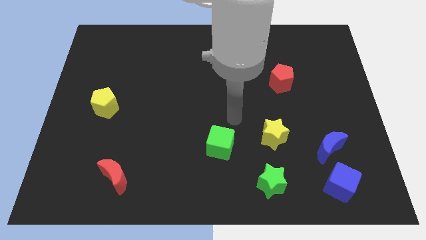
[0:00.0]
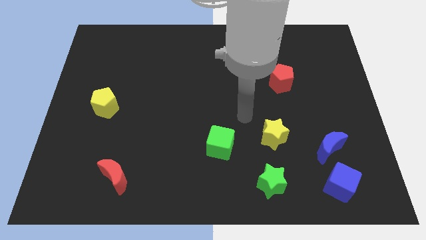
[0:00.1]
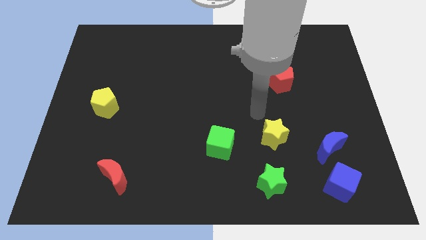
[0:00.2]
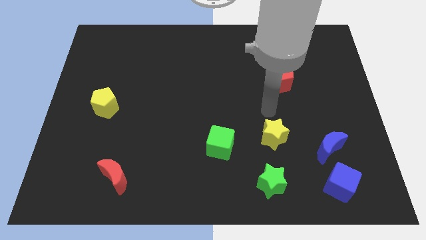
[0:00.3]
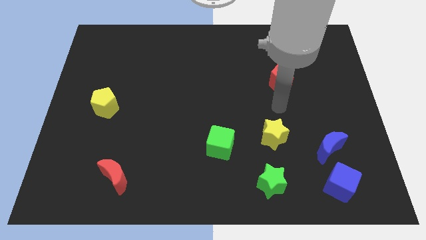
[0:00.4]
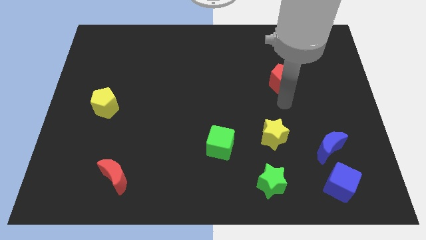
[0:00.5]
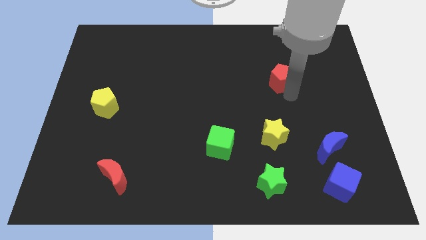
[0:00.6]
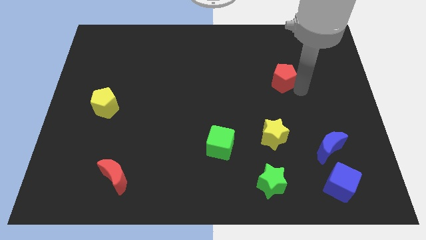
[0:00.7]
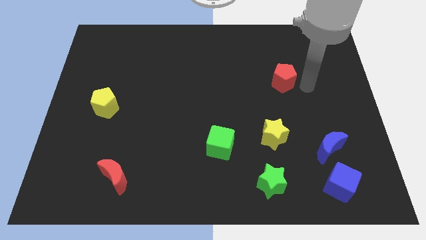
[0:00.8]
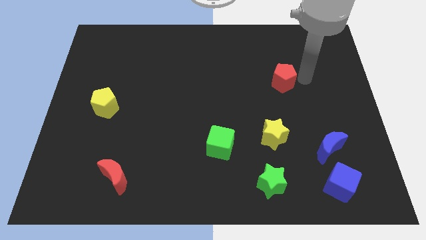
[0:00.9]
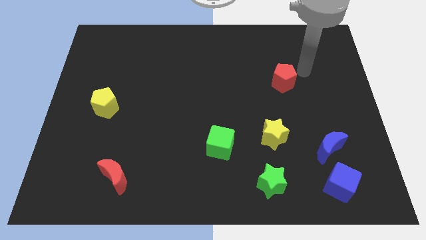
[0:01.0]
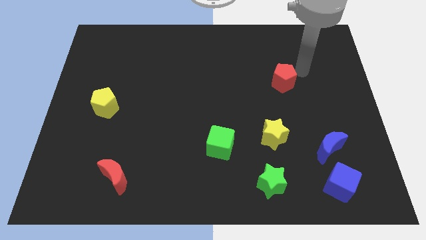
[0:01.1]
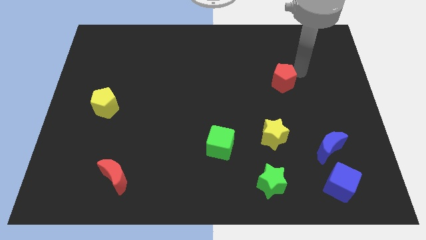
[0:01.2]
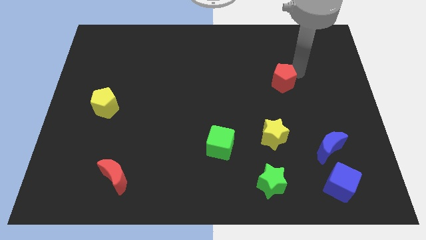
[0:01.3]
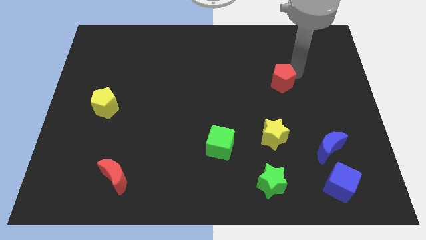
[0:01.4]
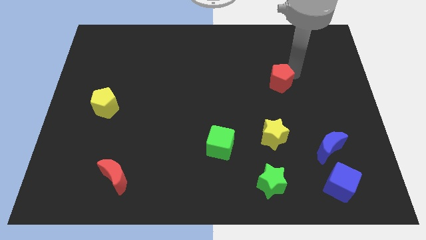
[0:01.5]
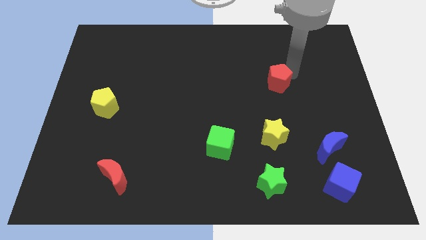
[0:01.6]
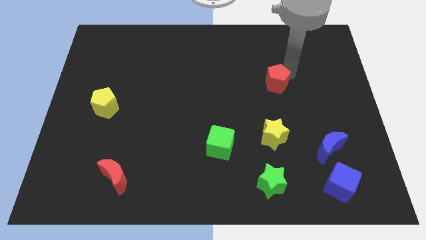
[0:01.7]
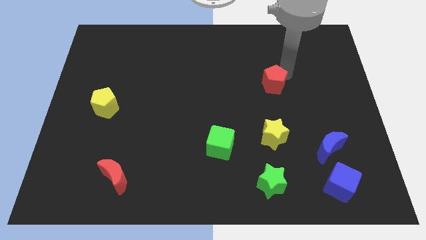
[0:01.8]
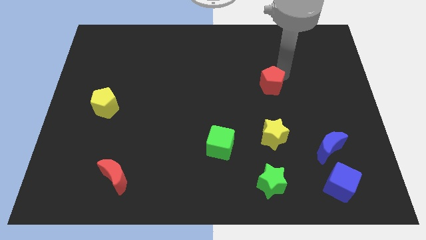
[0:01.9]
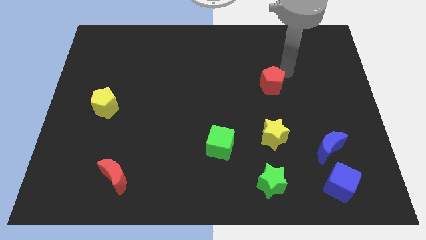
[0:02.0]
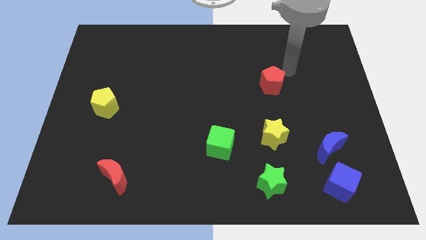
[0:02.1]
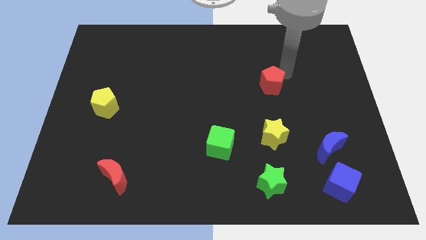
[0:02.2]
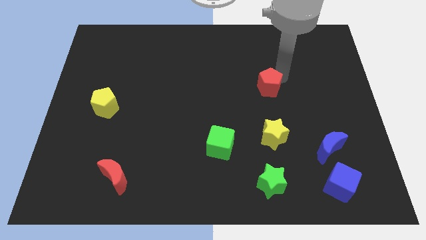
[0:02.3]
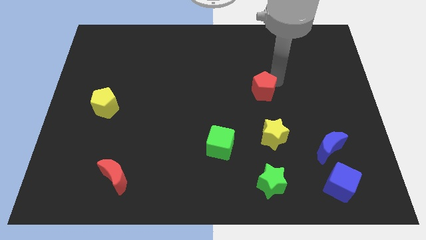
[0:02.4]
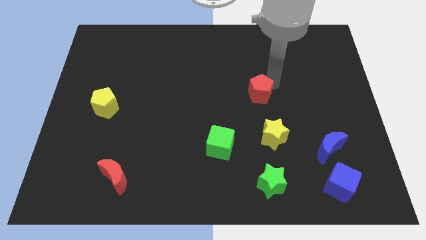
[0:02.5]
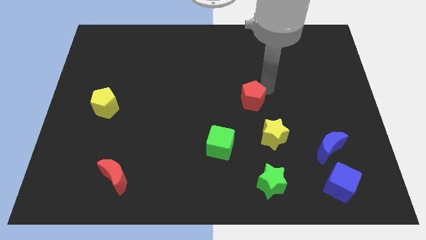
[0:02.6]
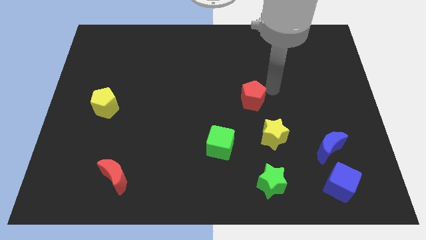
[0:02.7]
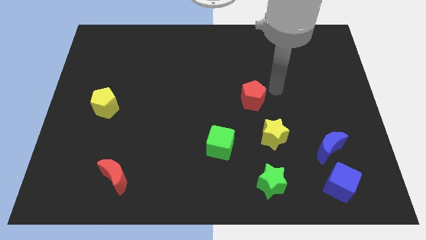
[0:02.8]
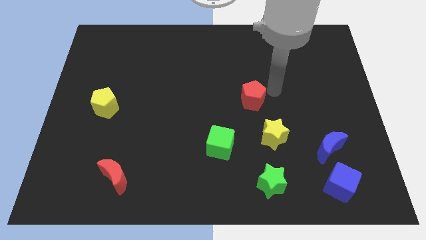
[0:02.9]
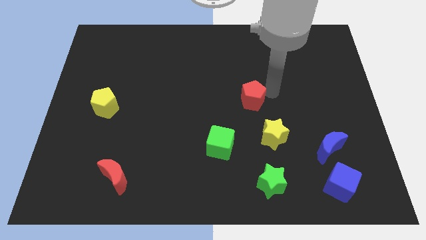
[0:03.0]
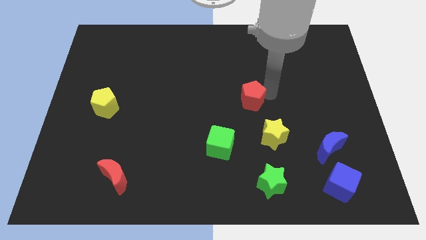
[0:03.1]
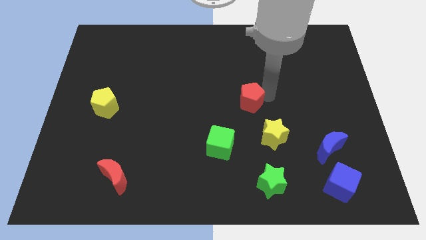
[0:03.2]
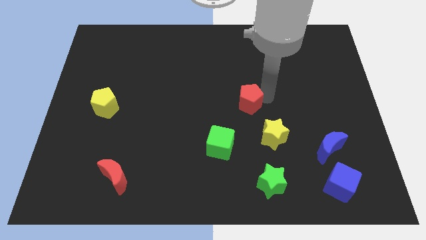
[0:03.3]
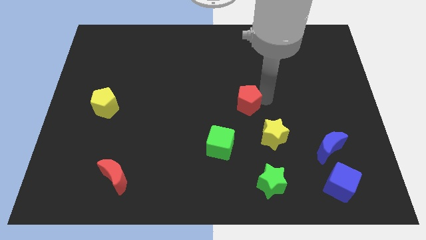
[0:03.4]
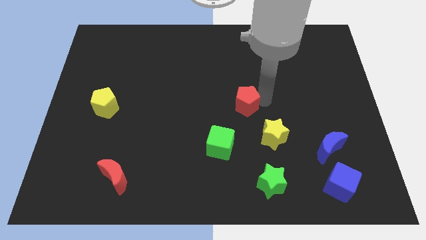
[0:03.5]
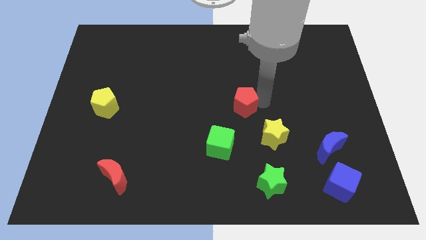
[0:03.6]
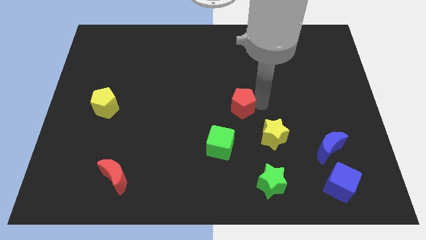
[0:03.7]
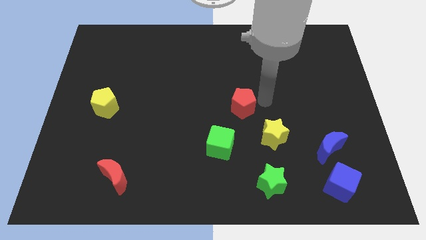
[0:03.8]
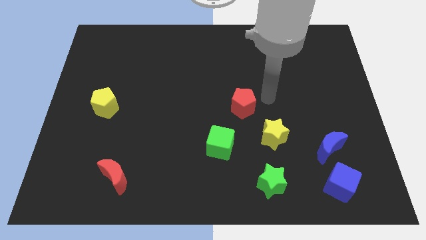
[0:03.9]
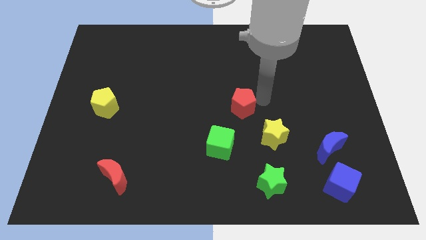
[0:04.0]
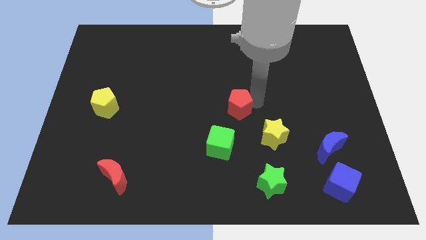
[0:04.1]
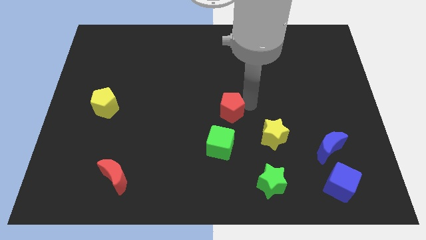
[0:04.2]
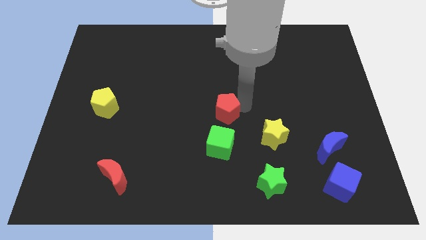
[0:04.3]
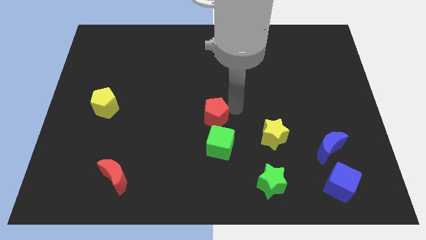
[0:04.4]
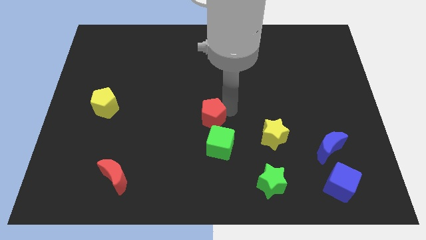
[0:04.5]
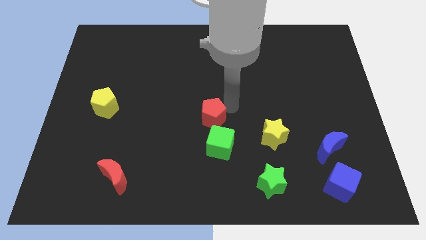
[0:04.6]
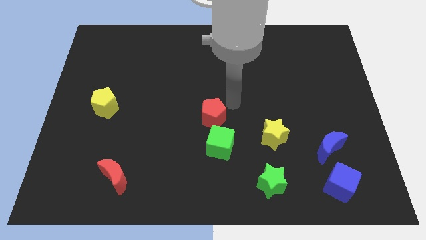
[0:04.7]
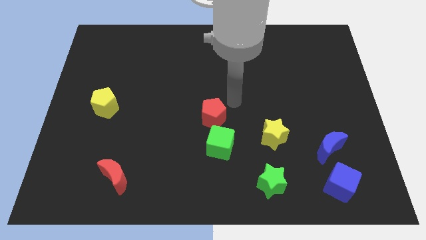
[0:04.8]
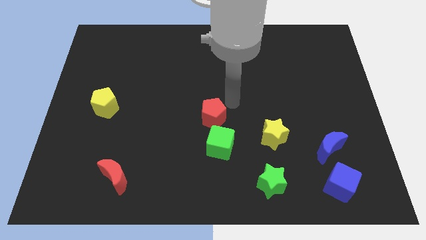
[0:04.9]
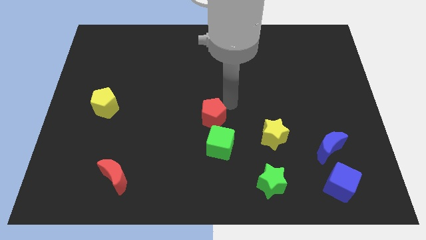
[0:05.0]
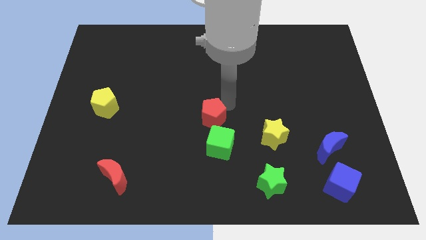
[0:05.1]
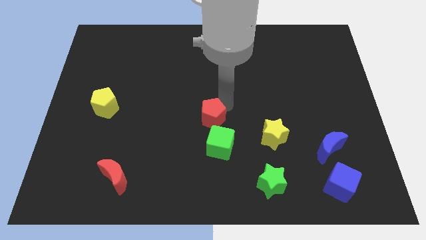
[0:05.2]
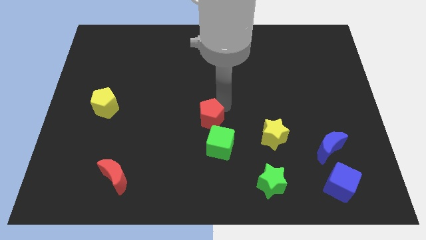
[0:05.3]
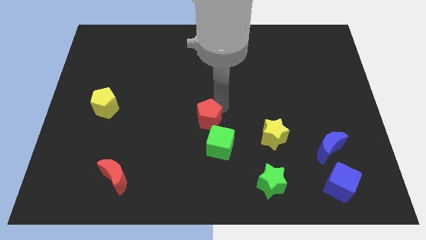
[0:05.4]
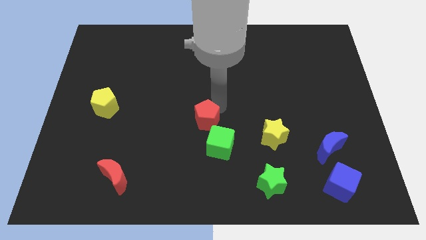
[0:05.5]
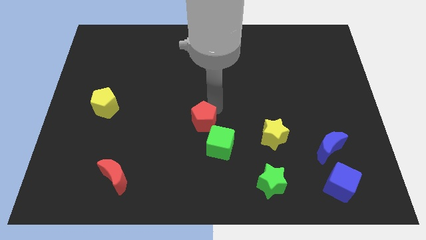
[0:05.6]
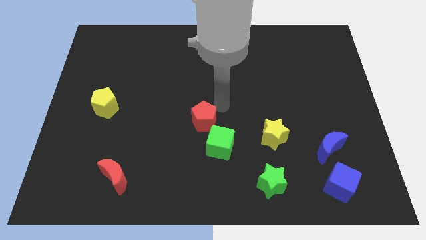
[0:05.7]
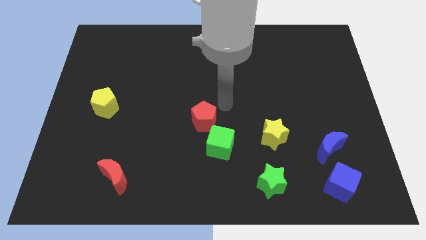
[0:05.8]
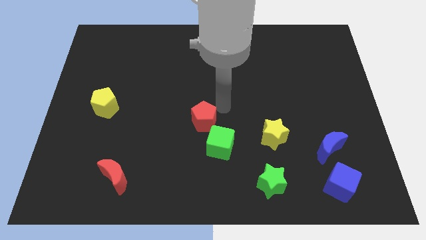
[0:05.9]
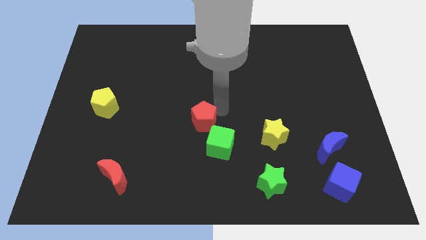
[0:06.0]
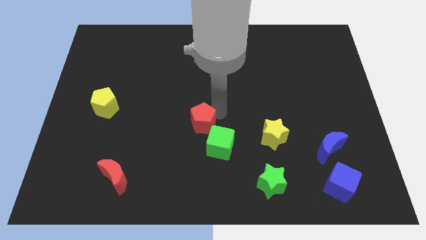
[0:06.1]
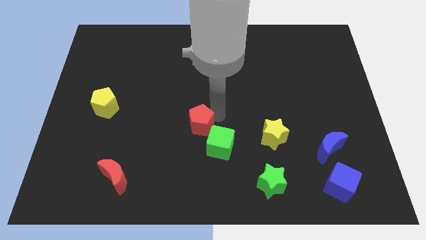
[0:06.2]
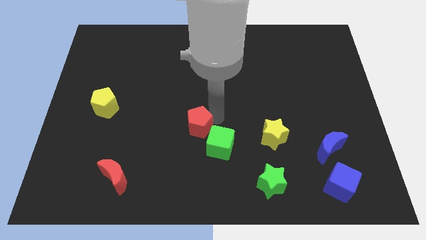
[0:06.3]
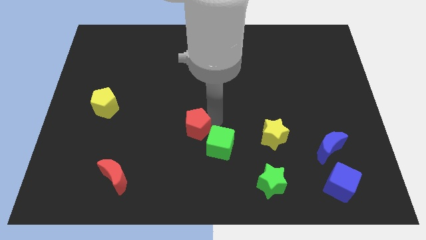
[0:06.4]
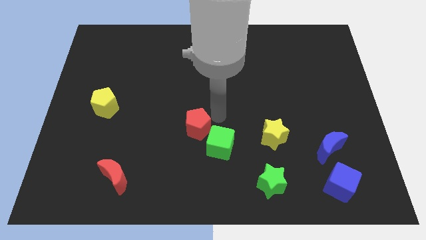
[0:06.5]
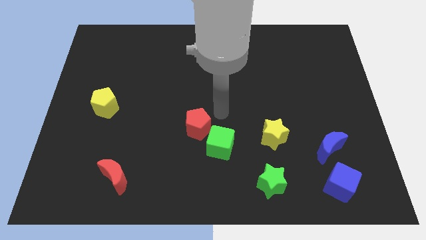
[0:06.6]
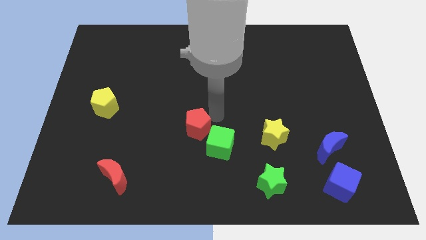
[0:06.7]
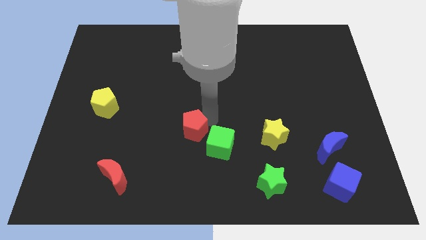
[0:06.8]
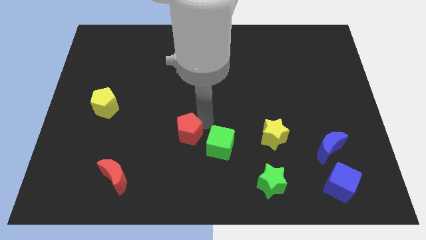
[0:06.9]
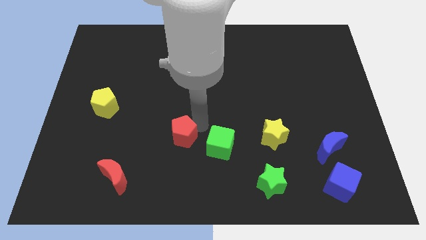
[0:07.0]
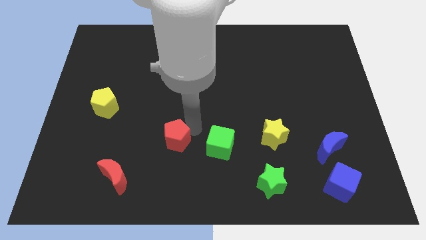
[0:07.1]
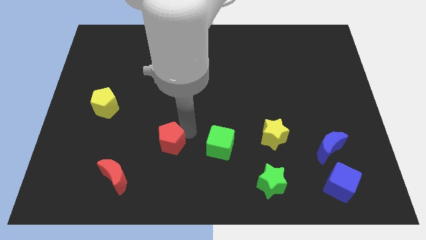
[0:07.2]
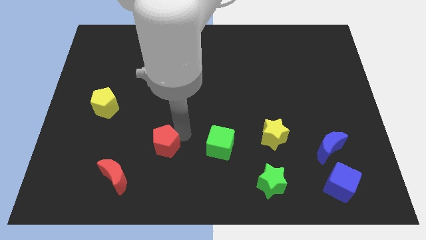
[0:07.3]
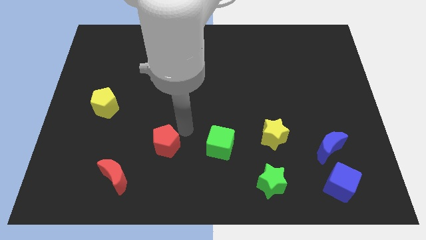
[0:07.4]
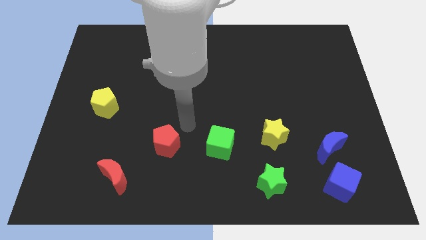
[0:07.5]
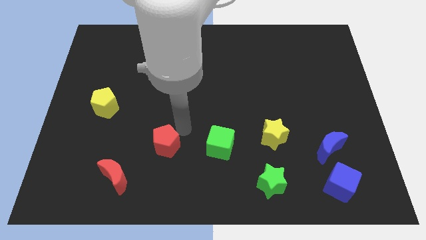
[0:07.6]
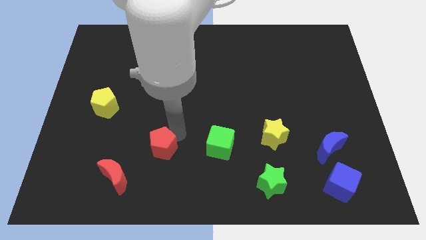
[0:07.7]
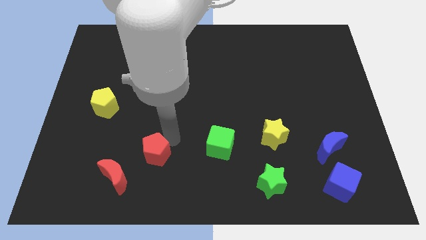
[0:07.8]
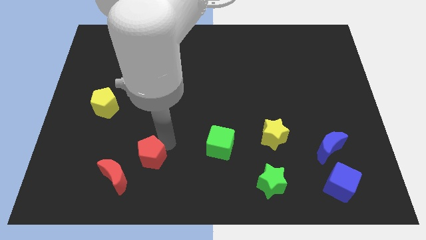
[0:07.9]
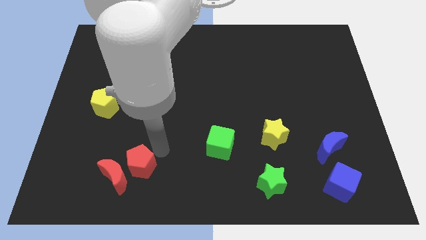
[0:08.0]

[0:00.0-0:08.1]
push the red pentagon next to the red moon
